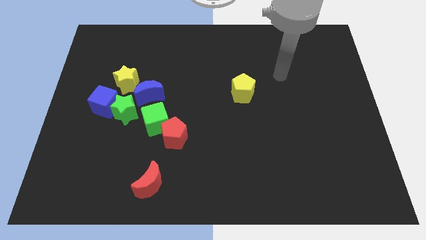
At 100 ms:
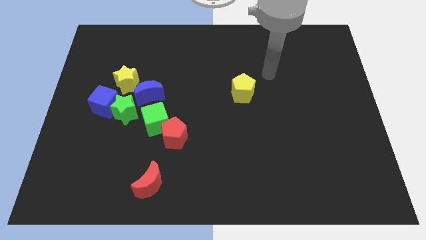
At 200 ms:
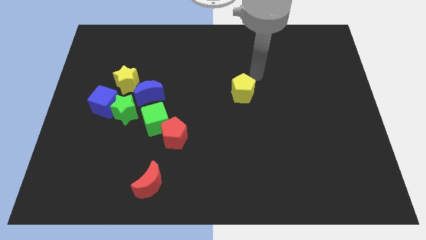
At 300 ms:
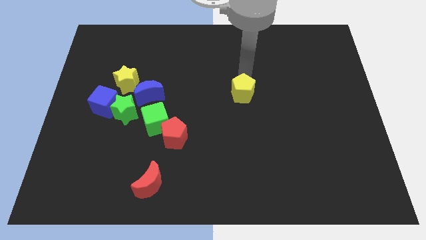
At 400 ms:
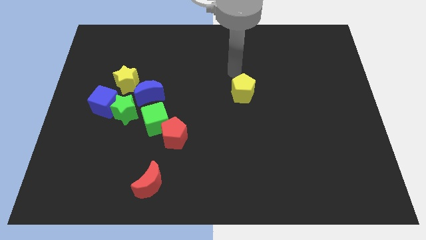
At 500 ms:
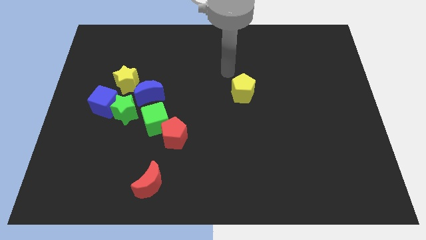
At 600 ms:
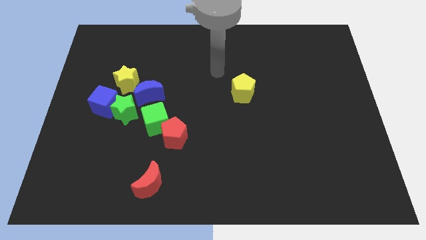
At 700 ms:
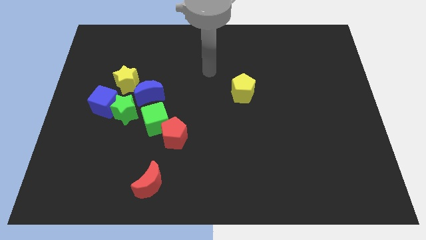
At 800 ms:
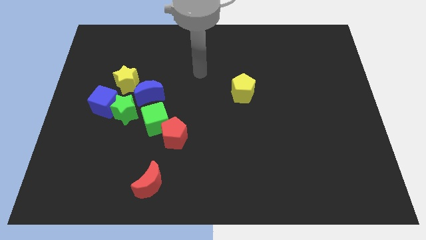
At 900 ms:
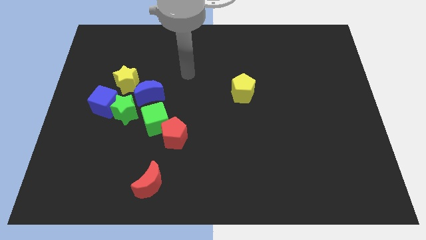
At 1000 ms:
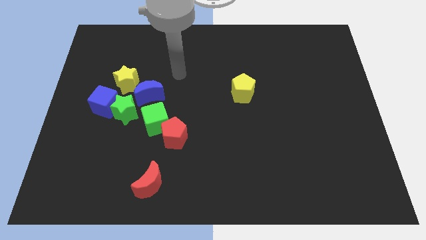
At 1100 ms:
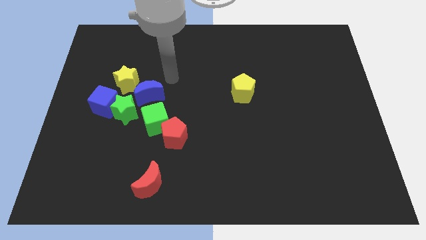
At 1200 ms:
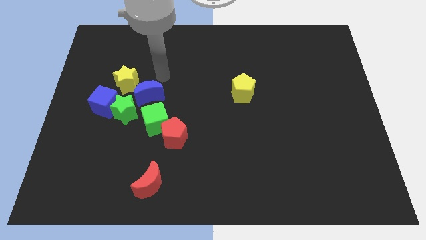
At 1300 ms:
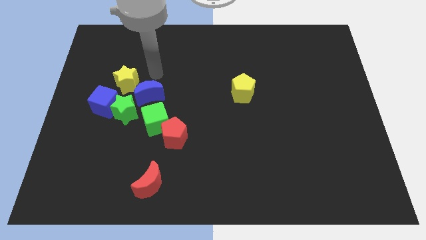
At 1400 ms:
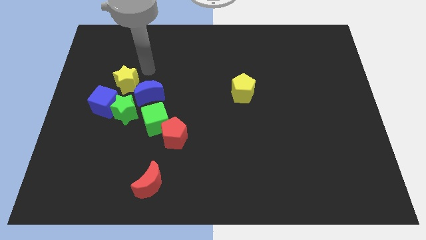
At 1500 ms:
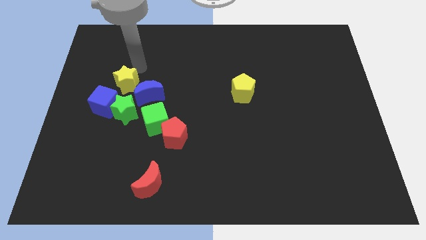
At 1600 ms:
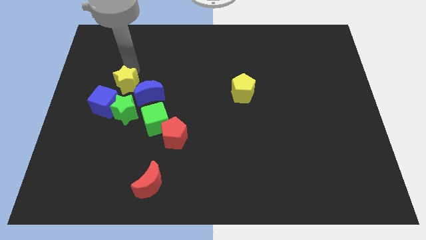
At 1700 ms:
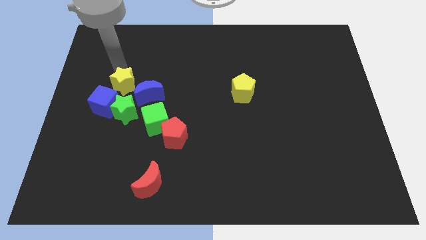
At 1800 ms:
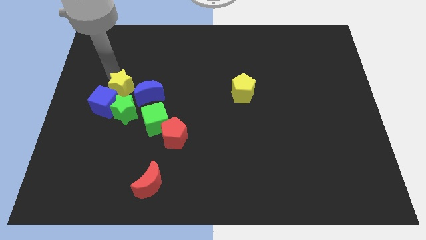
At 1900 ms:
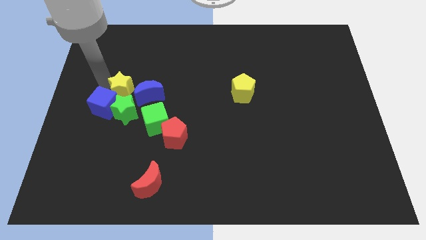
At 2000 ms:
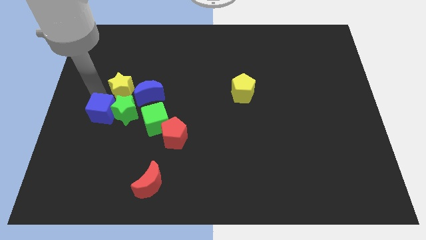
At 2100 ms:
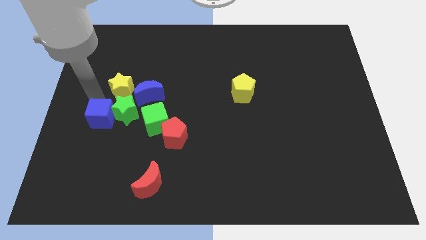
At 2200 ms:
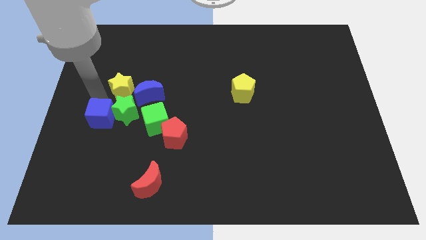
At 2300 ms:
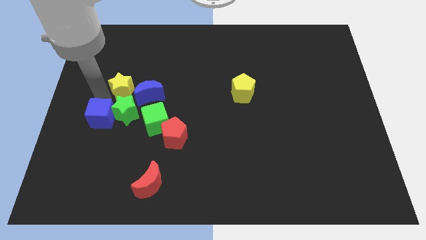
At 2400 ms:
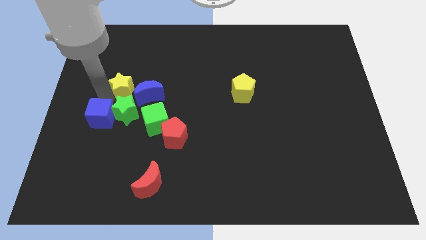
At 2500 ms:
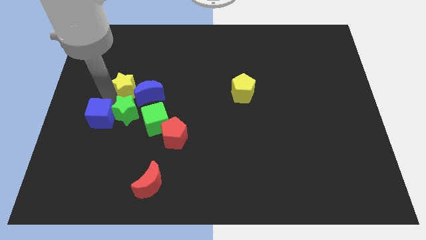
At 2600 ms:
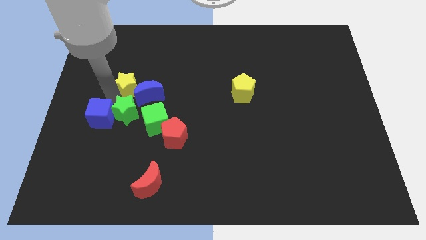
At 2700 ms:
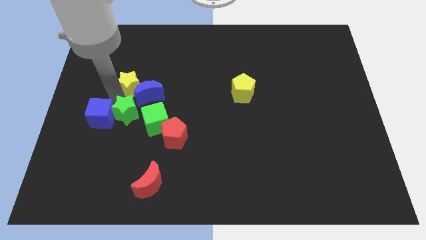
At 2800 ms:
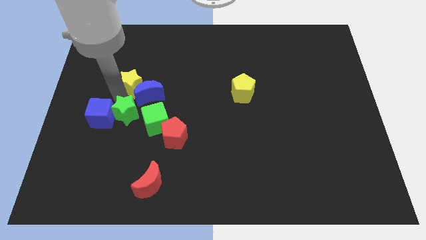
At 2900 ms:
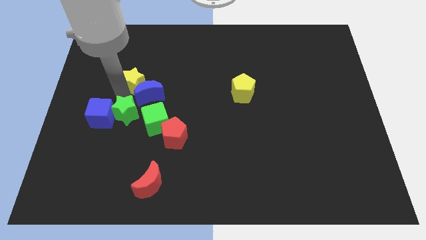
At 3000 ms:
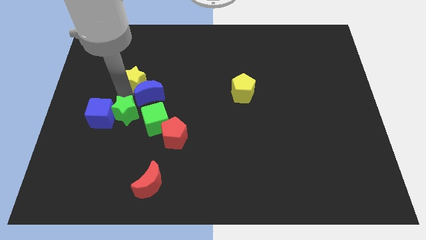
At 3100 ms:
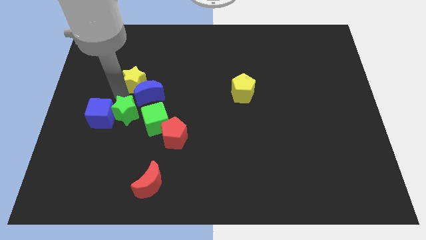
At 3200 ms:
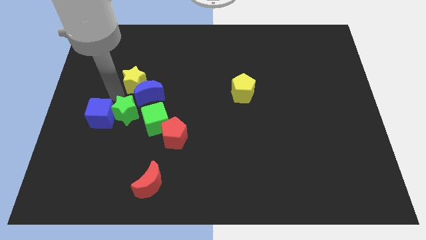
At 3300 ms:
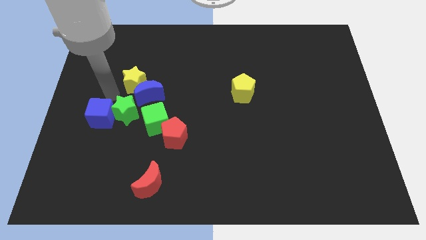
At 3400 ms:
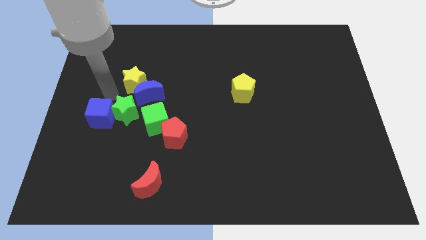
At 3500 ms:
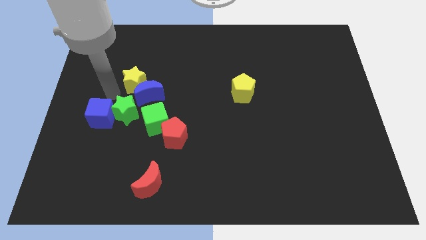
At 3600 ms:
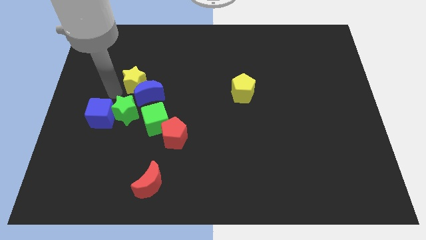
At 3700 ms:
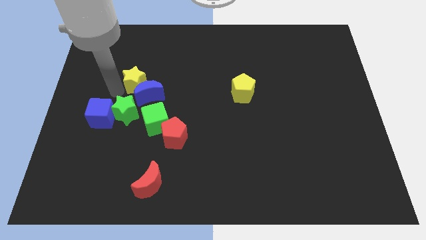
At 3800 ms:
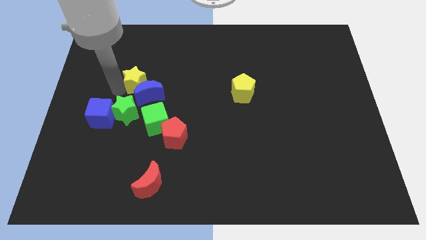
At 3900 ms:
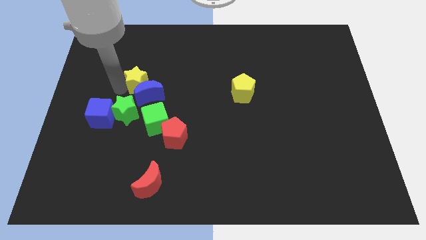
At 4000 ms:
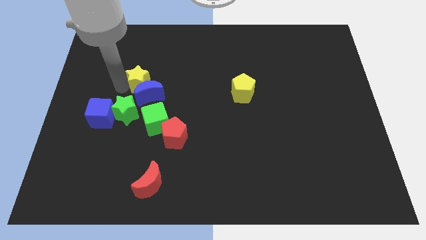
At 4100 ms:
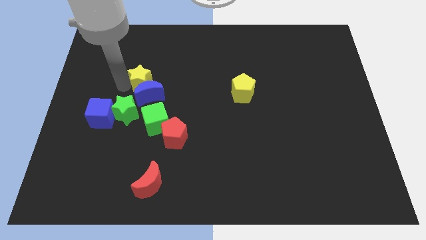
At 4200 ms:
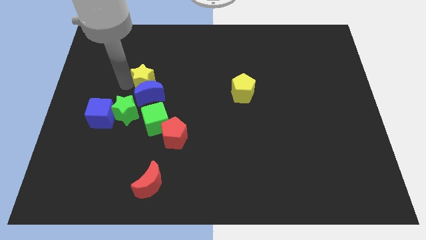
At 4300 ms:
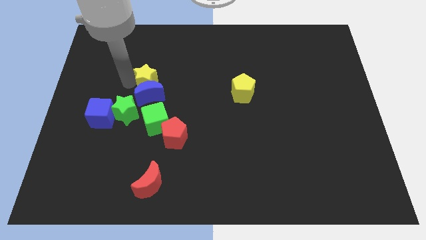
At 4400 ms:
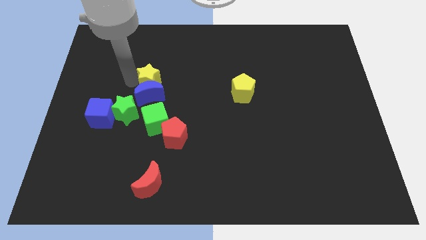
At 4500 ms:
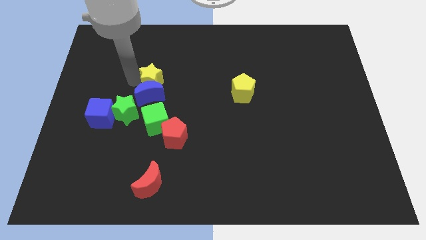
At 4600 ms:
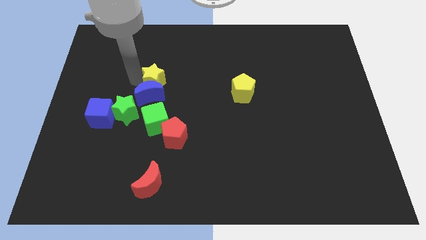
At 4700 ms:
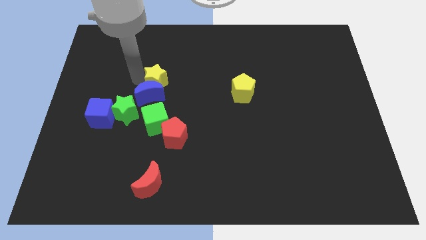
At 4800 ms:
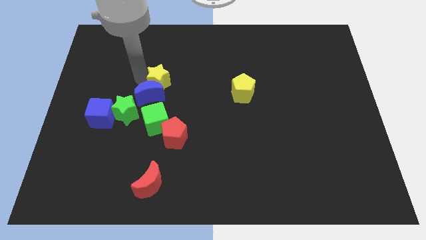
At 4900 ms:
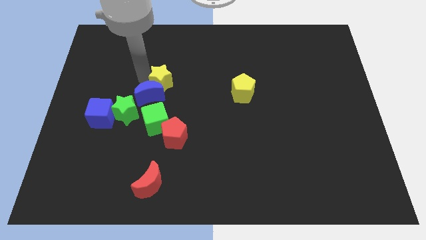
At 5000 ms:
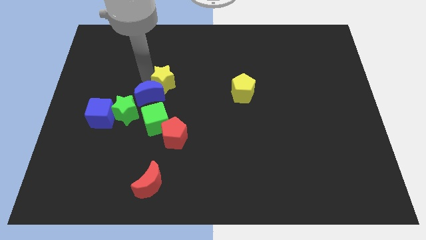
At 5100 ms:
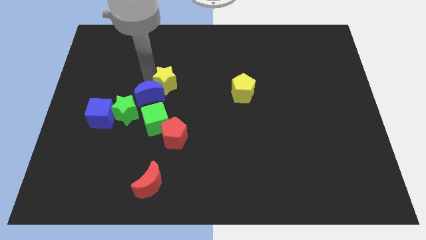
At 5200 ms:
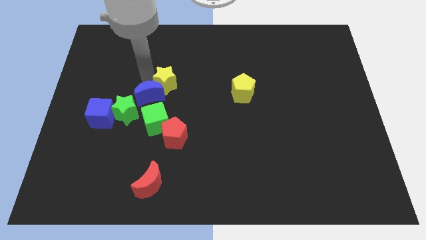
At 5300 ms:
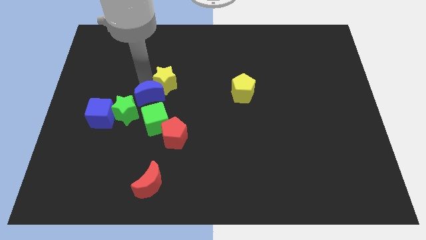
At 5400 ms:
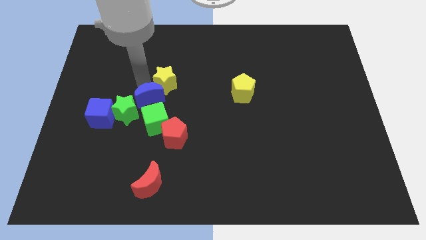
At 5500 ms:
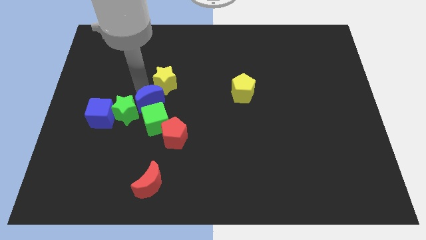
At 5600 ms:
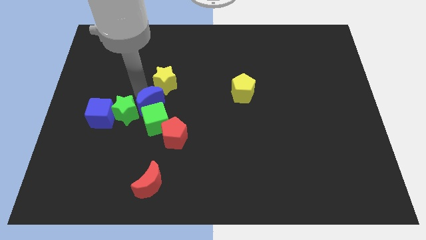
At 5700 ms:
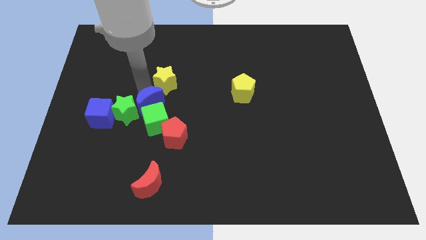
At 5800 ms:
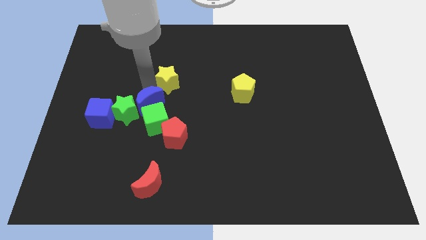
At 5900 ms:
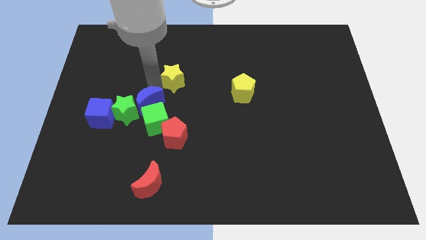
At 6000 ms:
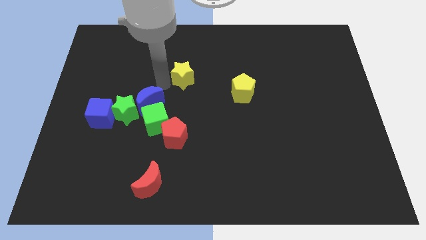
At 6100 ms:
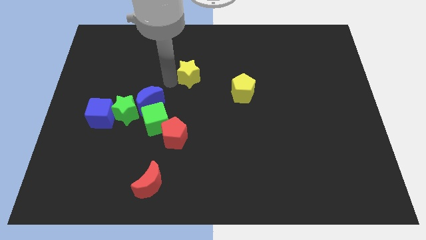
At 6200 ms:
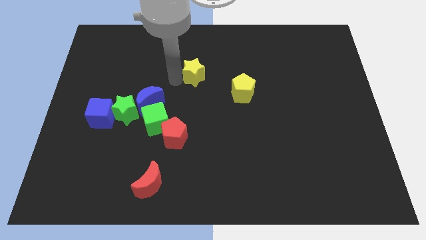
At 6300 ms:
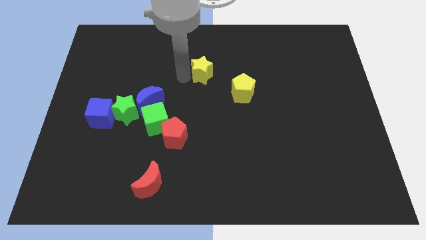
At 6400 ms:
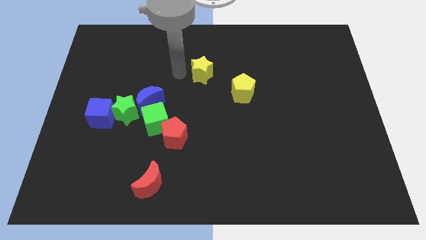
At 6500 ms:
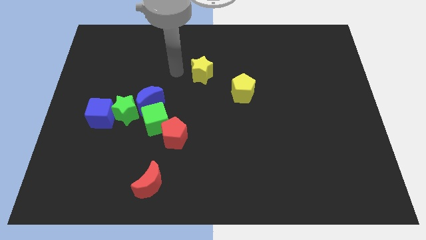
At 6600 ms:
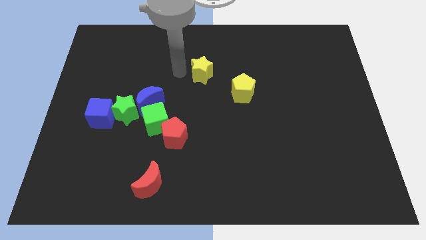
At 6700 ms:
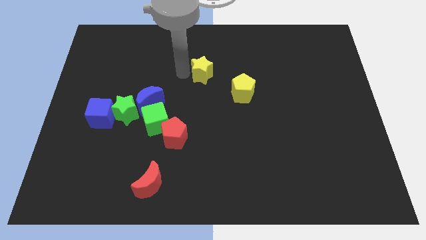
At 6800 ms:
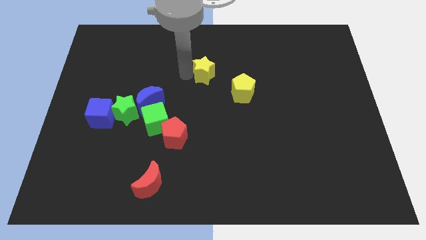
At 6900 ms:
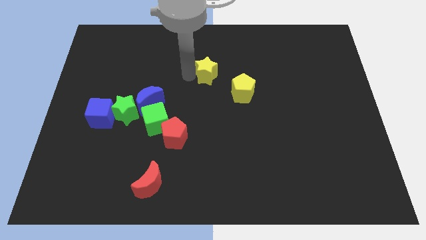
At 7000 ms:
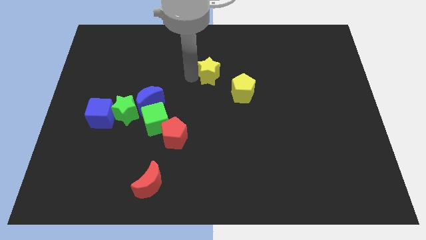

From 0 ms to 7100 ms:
move the yellow star to the right

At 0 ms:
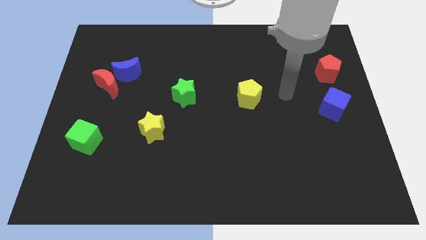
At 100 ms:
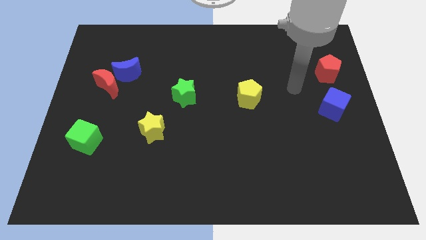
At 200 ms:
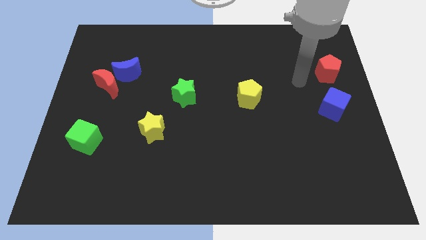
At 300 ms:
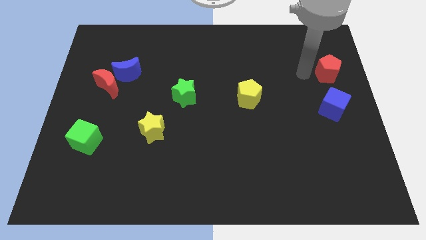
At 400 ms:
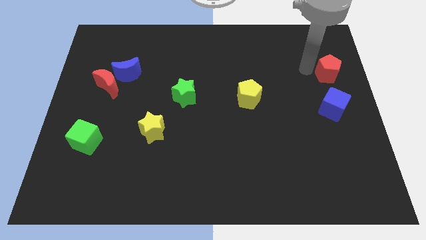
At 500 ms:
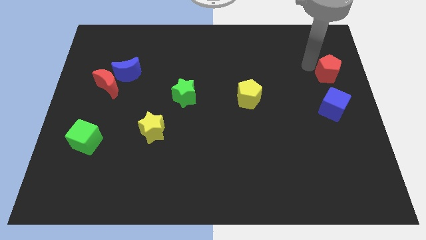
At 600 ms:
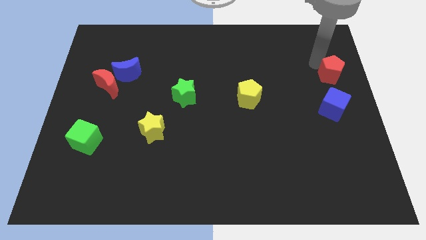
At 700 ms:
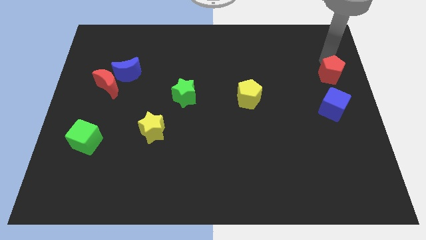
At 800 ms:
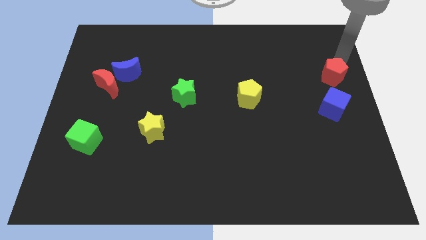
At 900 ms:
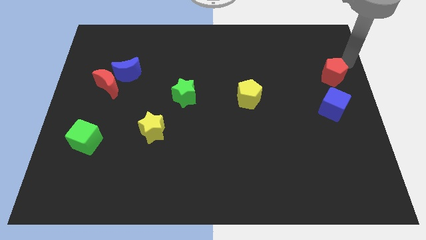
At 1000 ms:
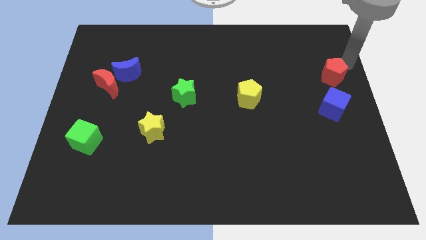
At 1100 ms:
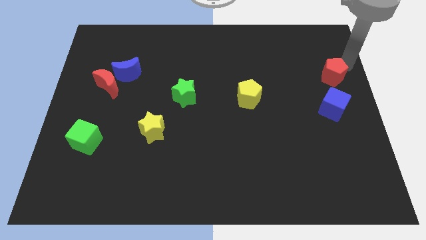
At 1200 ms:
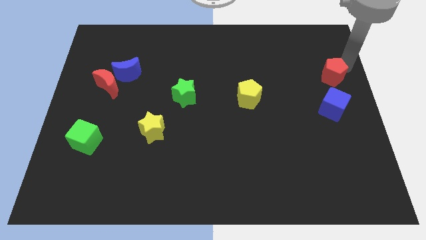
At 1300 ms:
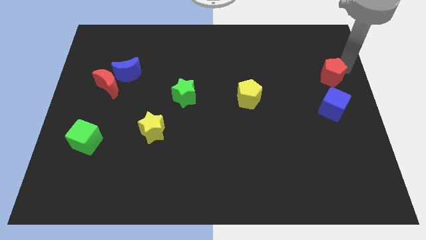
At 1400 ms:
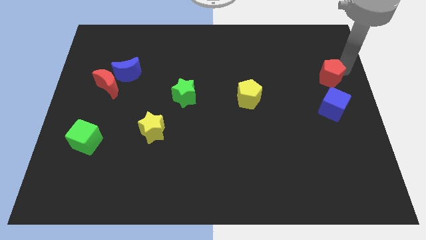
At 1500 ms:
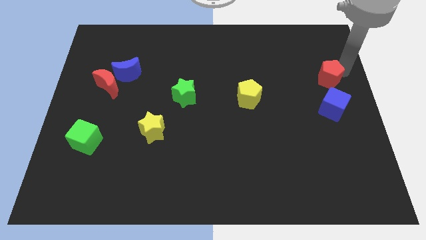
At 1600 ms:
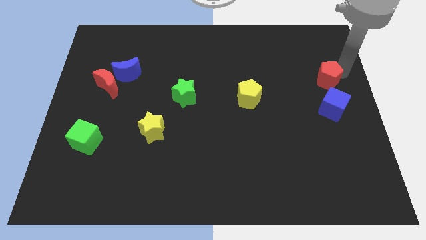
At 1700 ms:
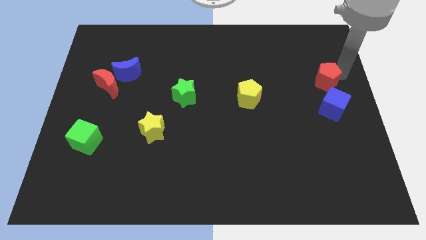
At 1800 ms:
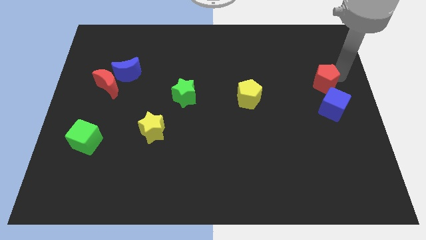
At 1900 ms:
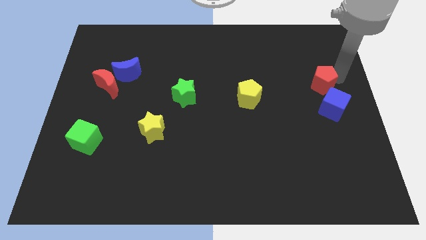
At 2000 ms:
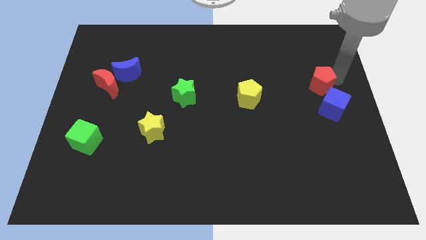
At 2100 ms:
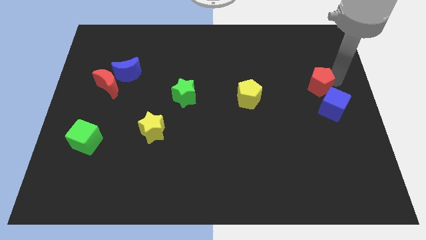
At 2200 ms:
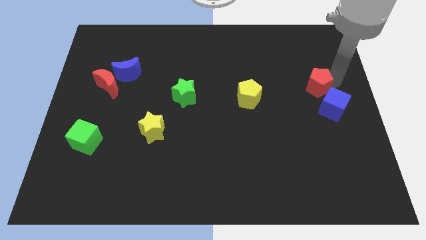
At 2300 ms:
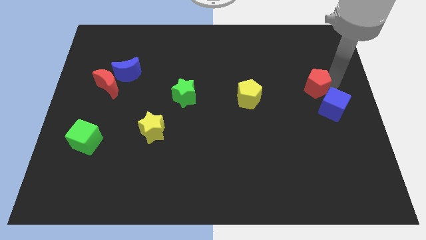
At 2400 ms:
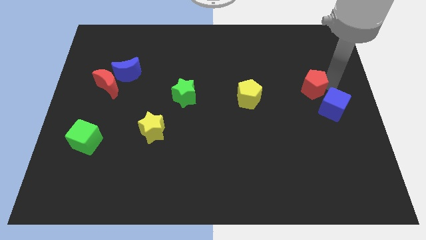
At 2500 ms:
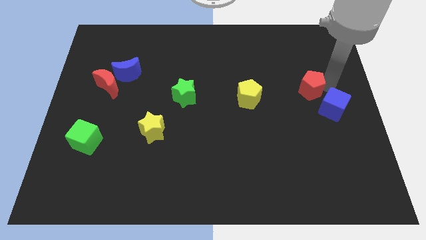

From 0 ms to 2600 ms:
slightly push the red pentagon down and to the left diagonally
